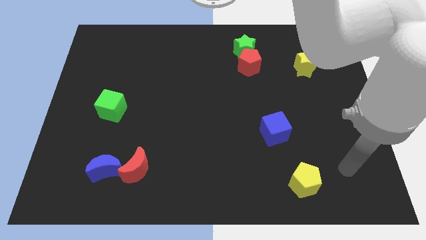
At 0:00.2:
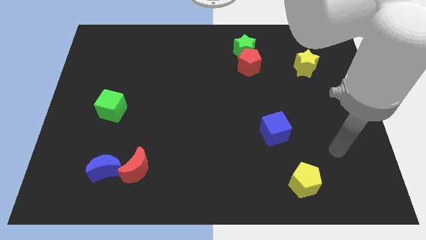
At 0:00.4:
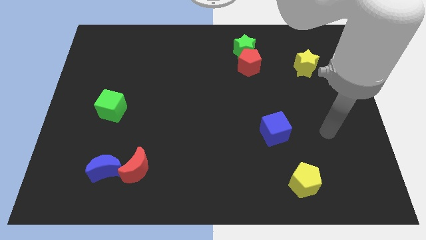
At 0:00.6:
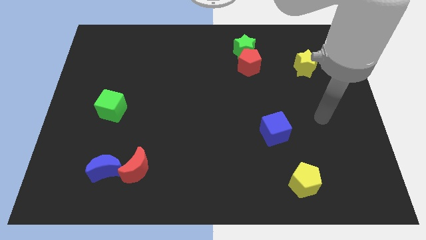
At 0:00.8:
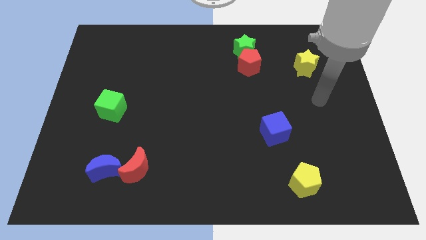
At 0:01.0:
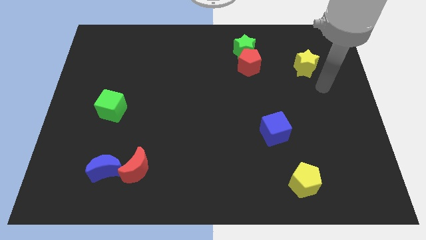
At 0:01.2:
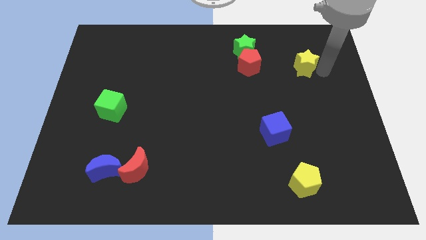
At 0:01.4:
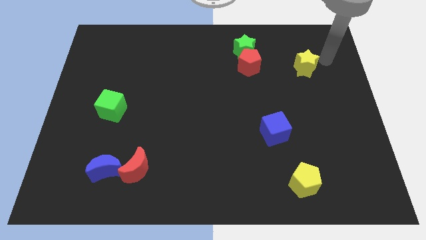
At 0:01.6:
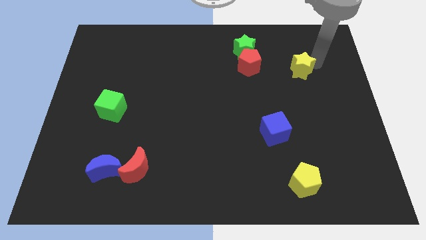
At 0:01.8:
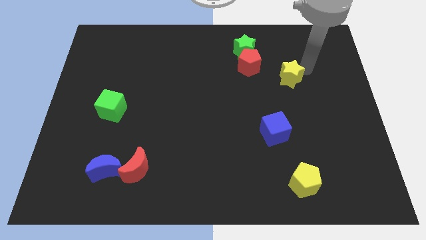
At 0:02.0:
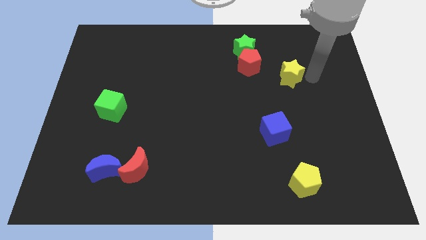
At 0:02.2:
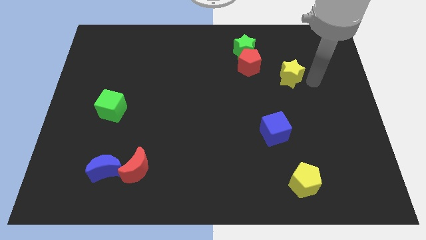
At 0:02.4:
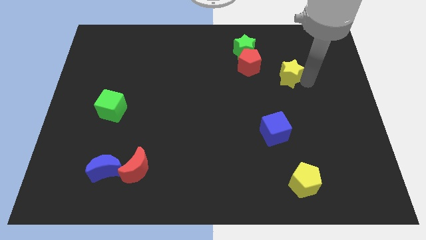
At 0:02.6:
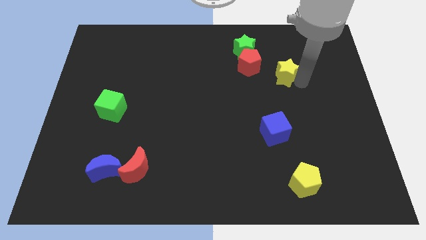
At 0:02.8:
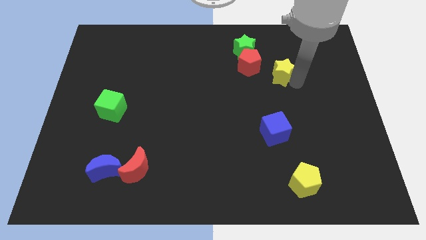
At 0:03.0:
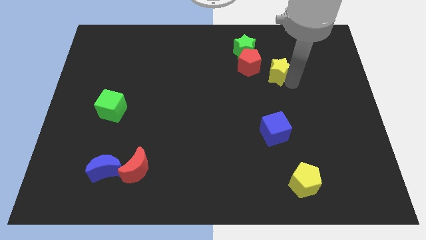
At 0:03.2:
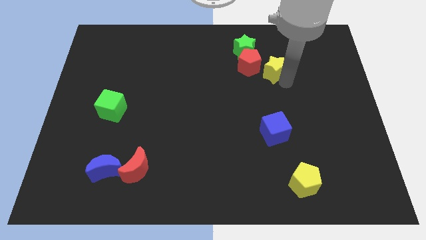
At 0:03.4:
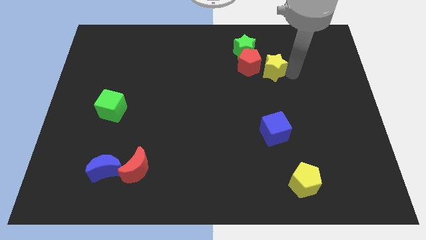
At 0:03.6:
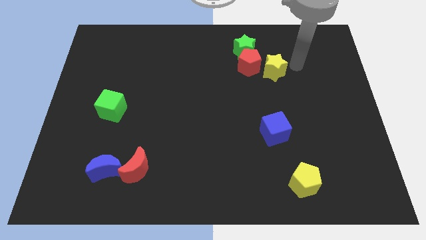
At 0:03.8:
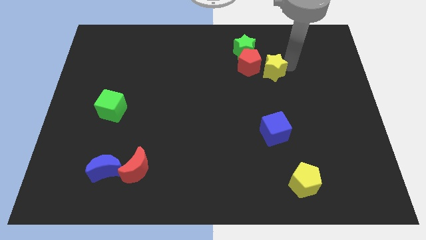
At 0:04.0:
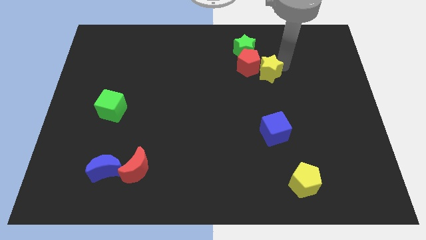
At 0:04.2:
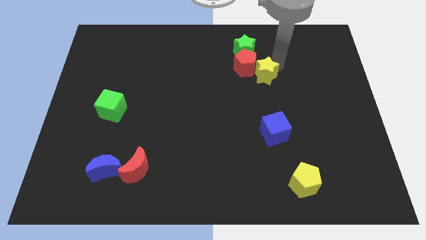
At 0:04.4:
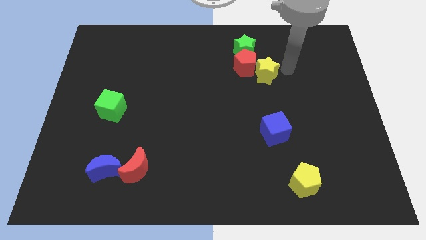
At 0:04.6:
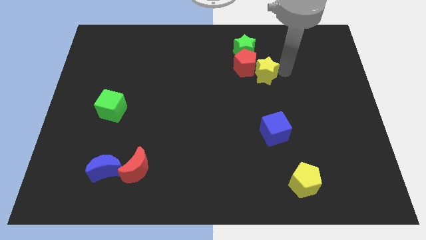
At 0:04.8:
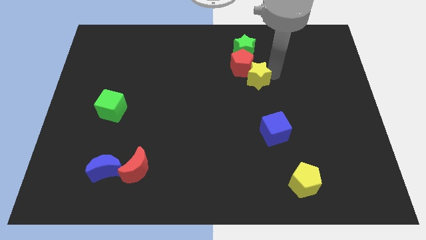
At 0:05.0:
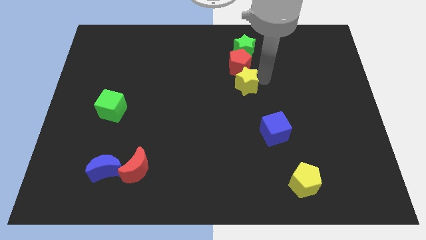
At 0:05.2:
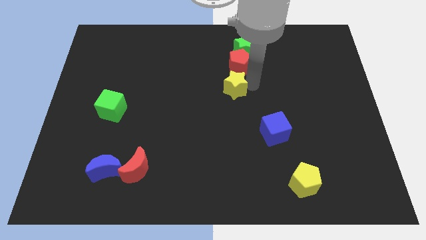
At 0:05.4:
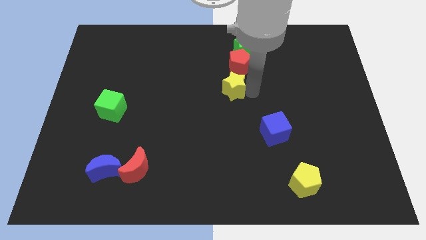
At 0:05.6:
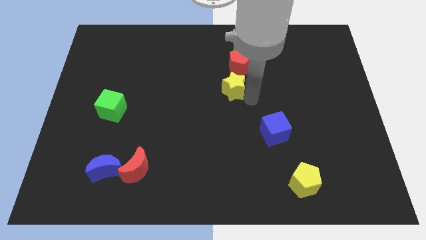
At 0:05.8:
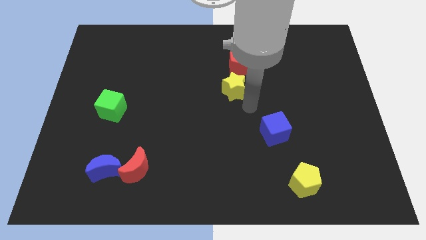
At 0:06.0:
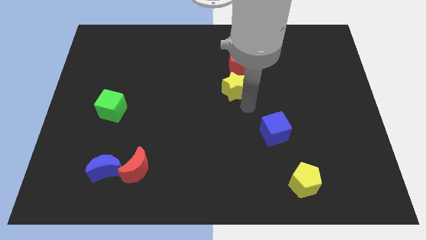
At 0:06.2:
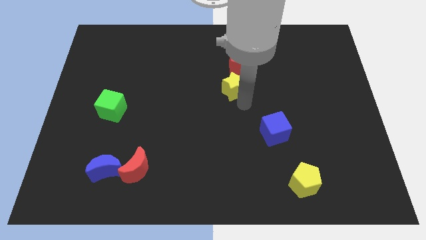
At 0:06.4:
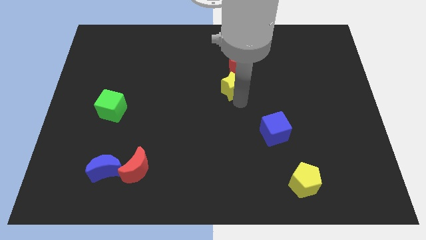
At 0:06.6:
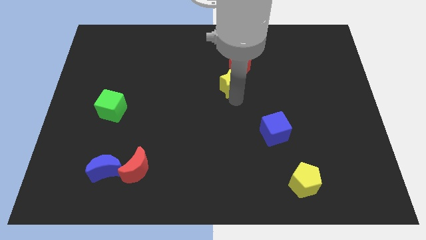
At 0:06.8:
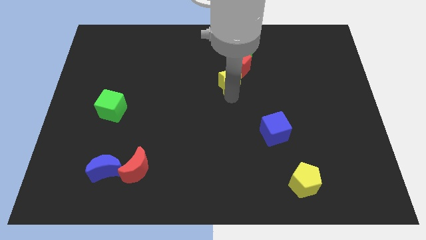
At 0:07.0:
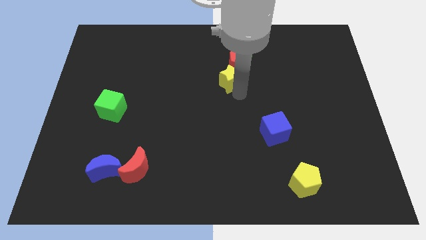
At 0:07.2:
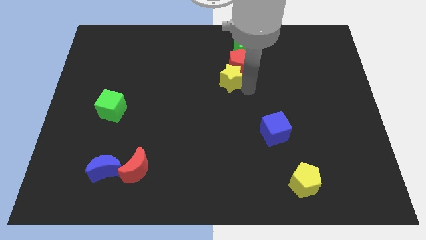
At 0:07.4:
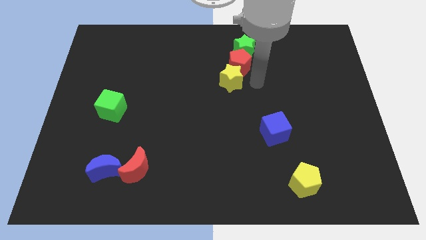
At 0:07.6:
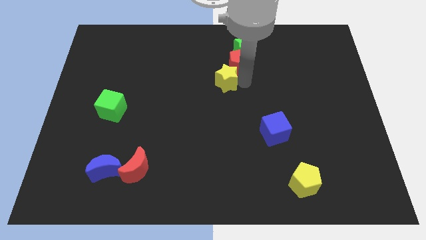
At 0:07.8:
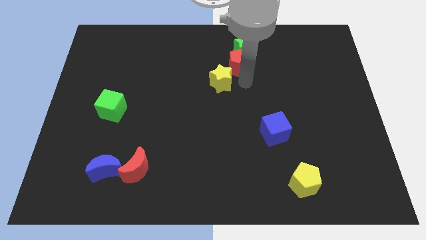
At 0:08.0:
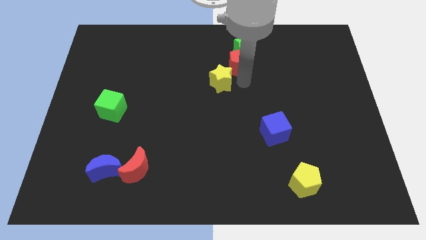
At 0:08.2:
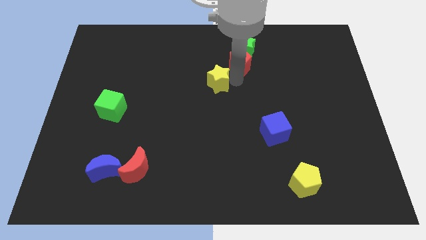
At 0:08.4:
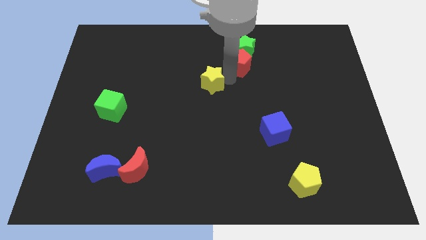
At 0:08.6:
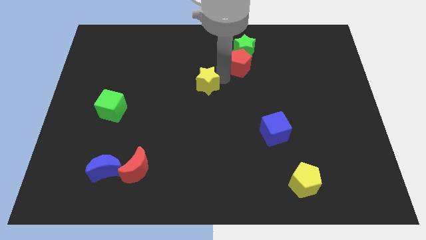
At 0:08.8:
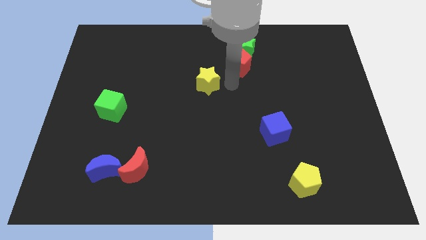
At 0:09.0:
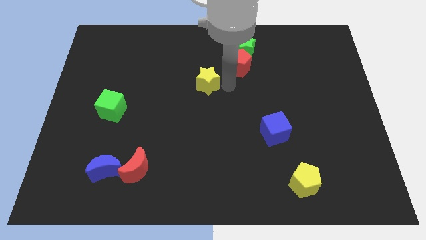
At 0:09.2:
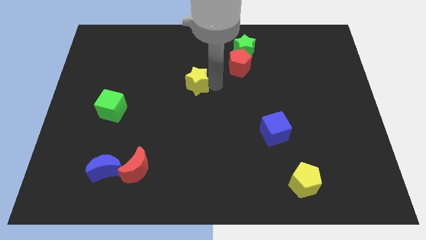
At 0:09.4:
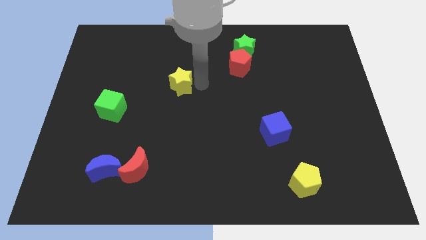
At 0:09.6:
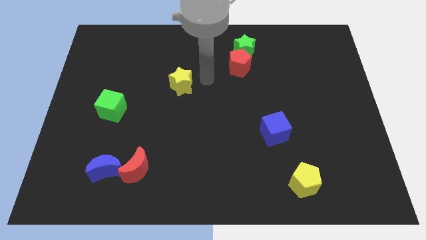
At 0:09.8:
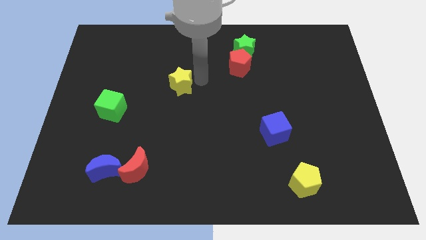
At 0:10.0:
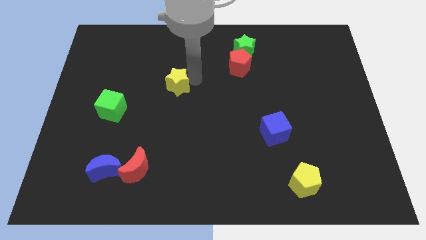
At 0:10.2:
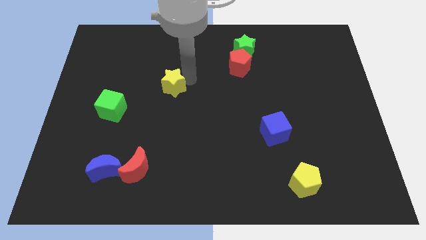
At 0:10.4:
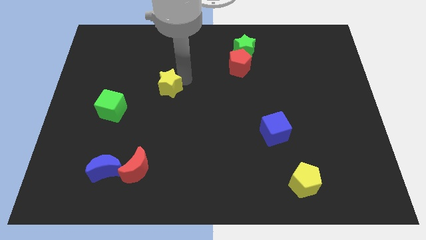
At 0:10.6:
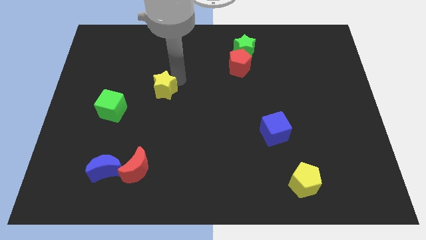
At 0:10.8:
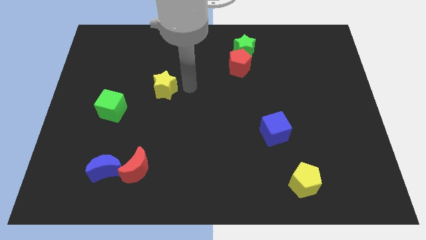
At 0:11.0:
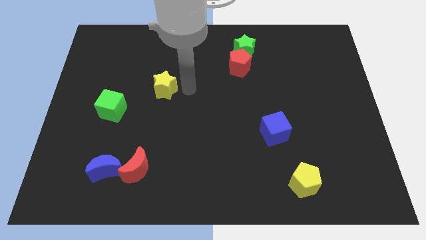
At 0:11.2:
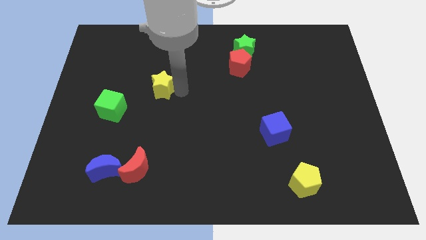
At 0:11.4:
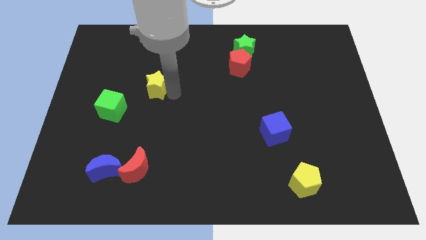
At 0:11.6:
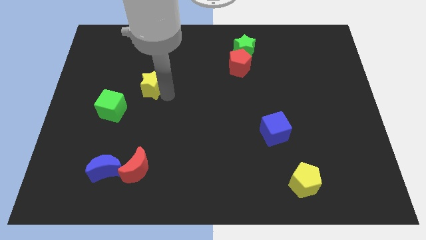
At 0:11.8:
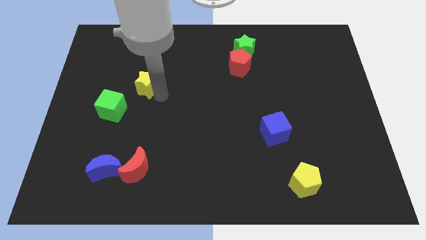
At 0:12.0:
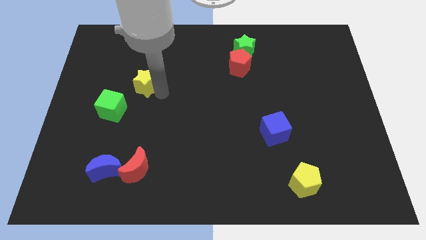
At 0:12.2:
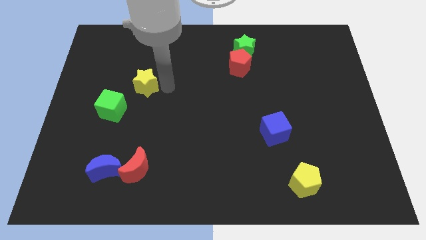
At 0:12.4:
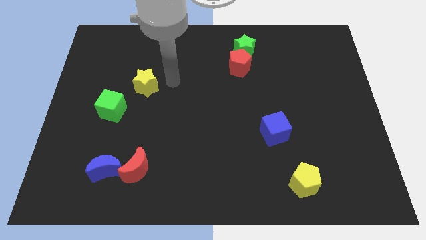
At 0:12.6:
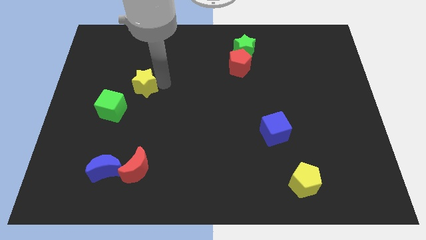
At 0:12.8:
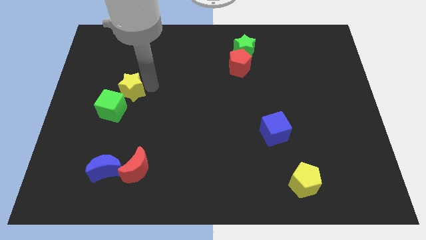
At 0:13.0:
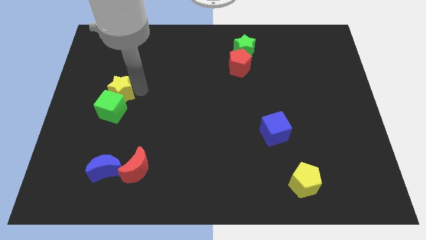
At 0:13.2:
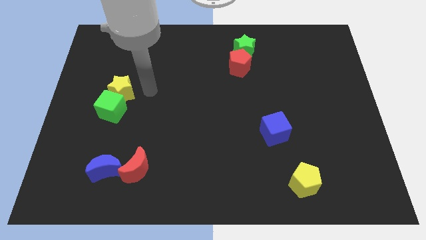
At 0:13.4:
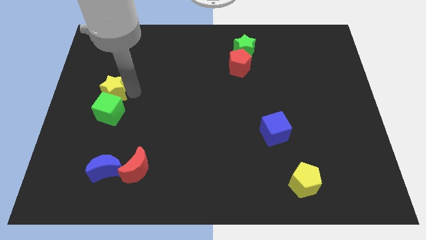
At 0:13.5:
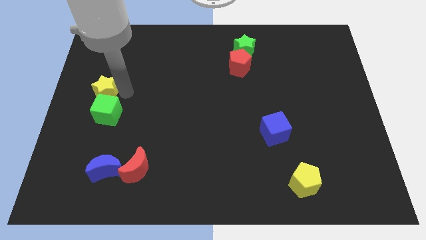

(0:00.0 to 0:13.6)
move the yellow star to the left side of the board
